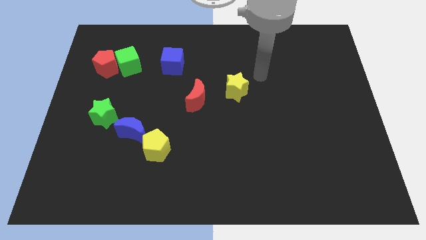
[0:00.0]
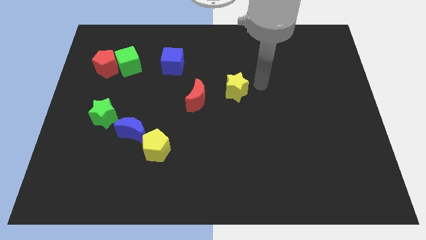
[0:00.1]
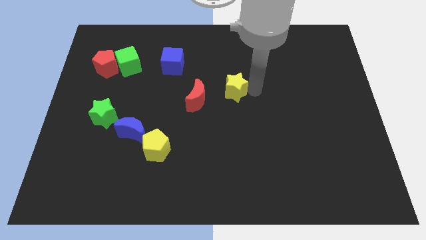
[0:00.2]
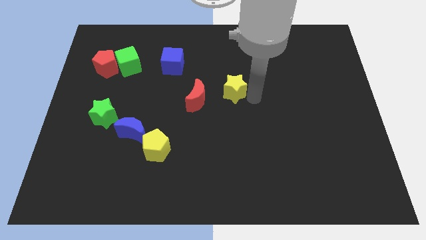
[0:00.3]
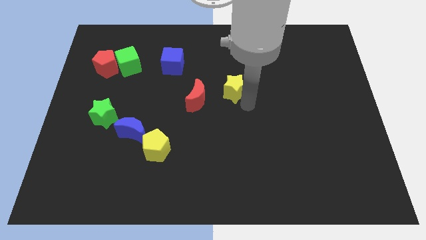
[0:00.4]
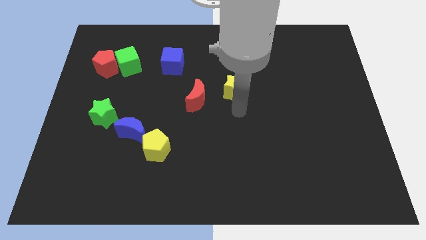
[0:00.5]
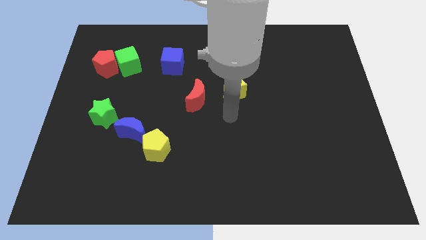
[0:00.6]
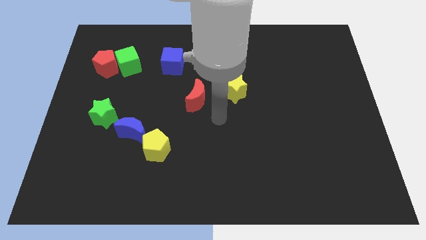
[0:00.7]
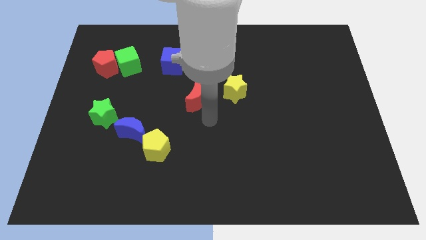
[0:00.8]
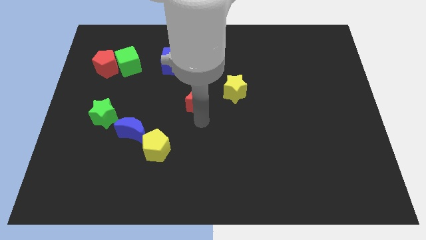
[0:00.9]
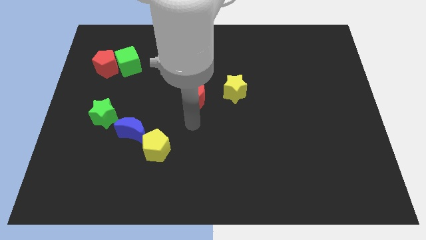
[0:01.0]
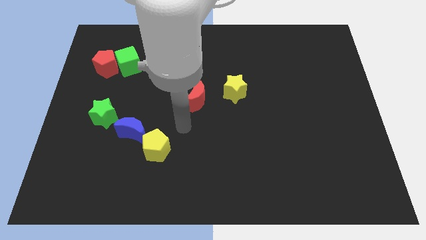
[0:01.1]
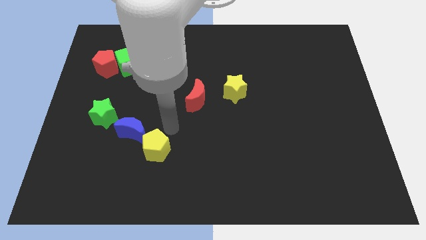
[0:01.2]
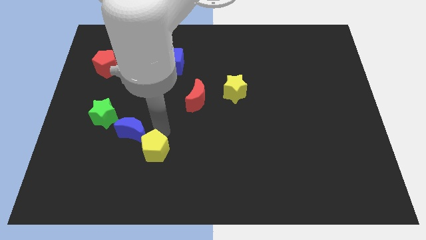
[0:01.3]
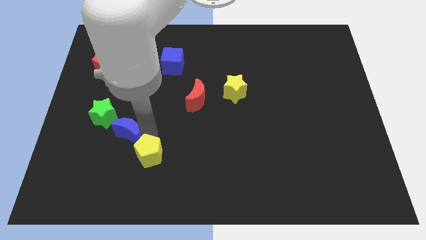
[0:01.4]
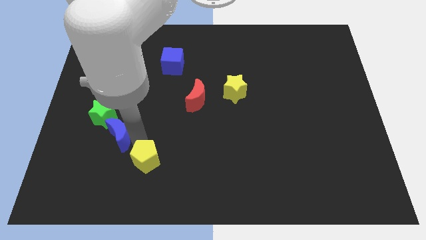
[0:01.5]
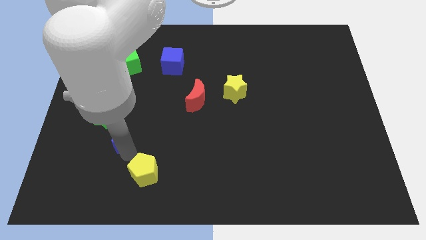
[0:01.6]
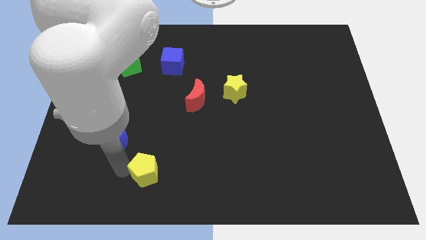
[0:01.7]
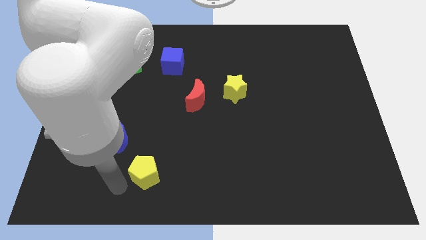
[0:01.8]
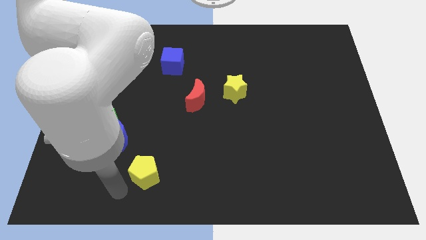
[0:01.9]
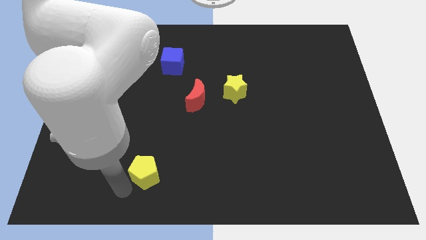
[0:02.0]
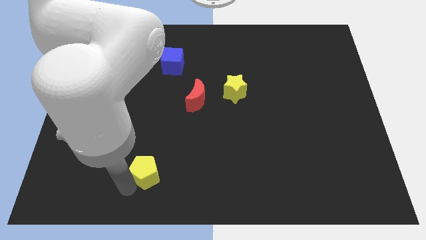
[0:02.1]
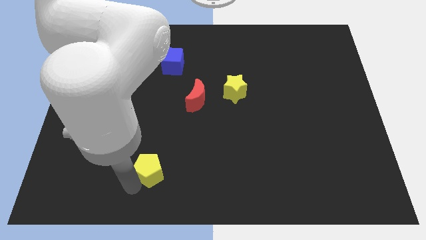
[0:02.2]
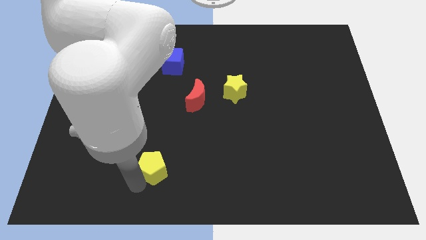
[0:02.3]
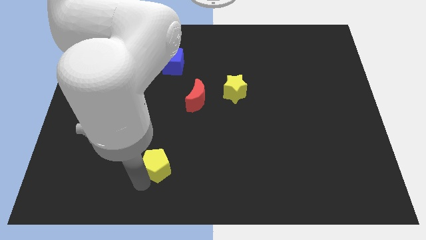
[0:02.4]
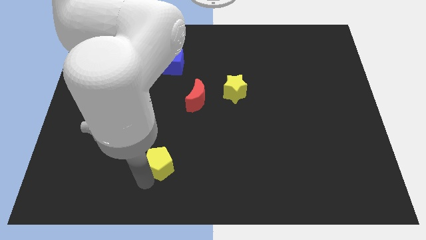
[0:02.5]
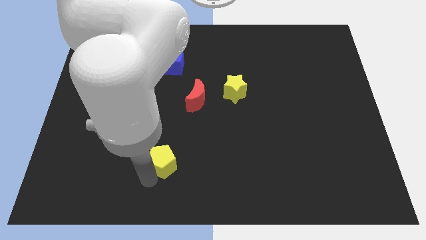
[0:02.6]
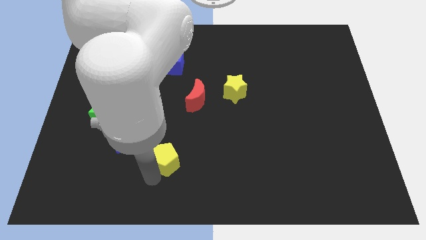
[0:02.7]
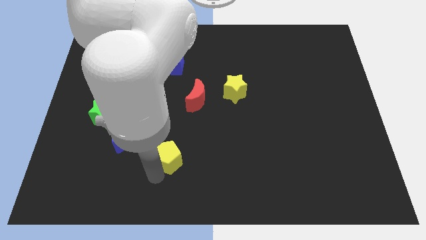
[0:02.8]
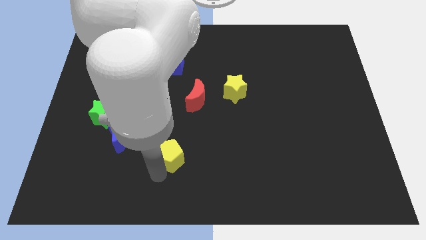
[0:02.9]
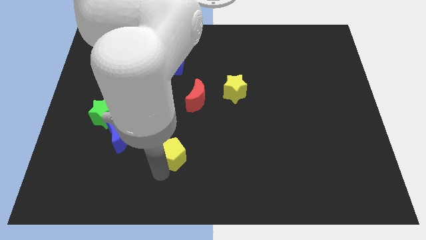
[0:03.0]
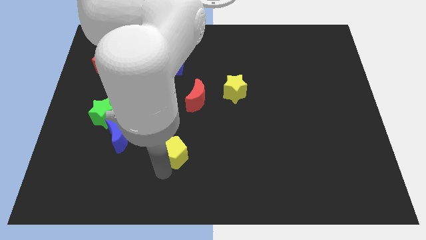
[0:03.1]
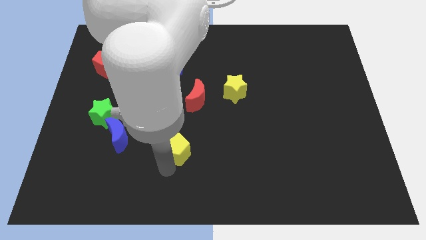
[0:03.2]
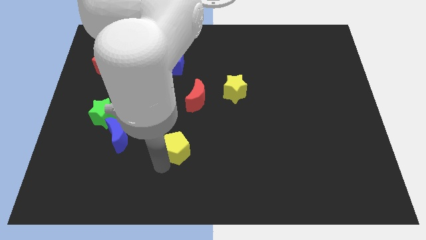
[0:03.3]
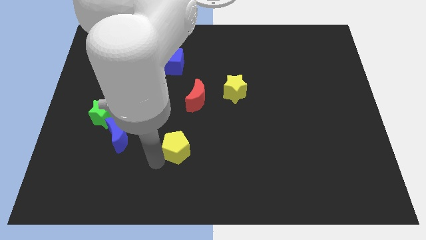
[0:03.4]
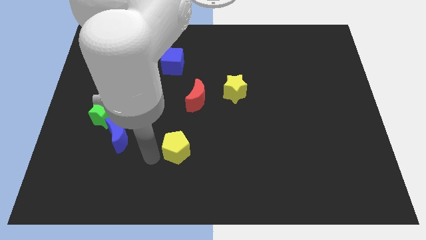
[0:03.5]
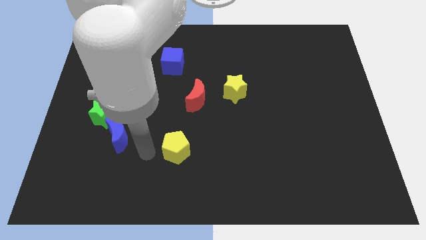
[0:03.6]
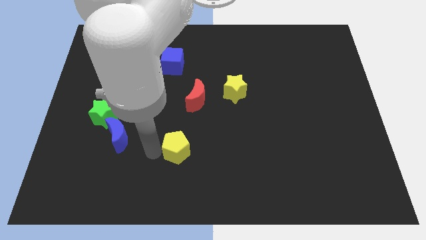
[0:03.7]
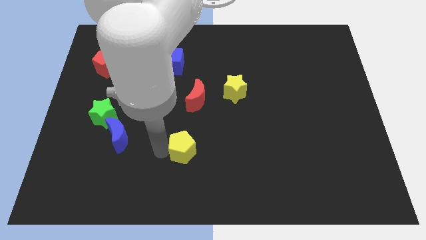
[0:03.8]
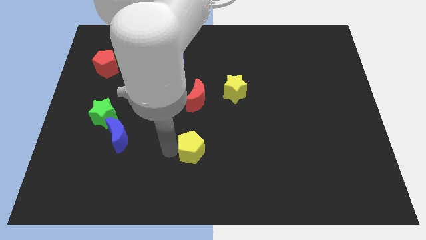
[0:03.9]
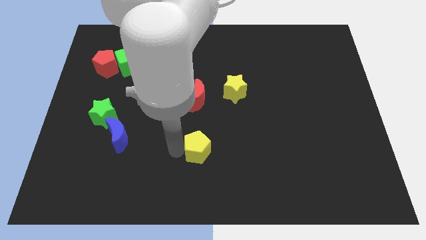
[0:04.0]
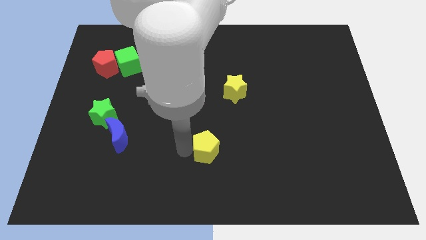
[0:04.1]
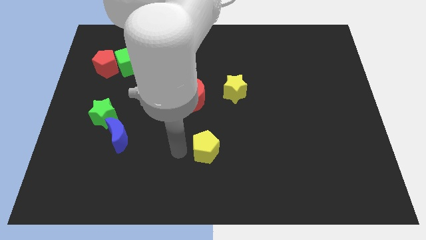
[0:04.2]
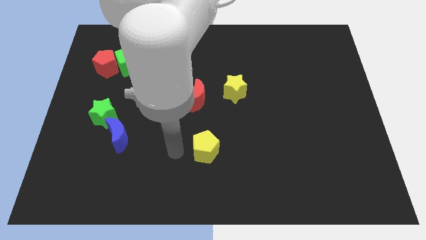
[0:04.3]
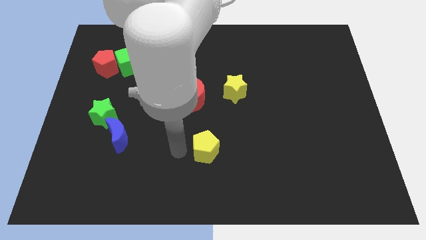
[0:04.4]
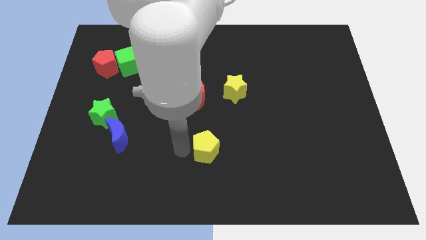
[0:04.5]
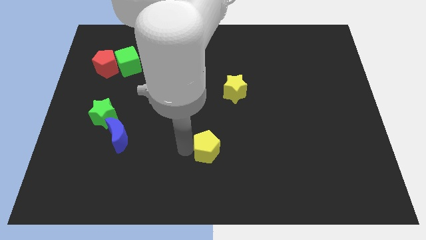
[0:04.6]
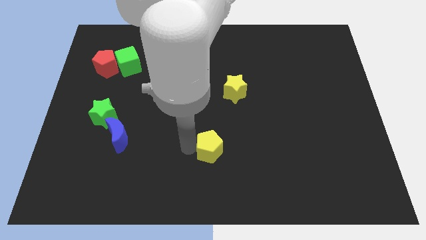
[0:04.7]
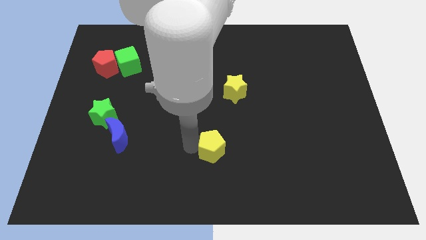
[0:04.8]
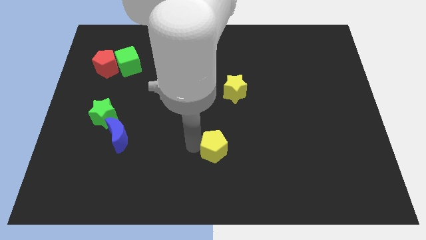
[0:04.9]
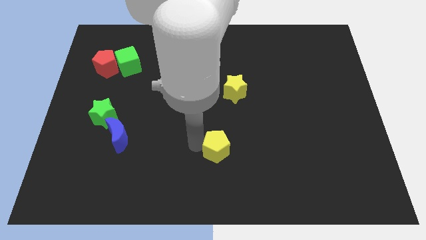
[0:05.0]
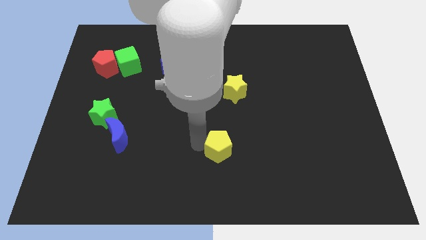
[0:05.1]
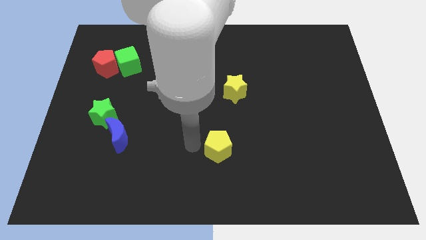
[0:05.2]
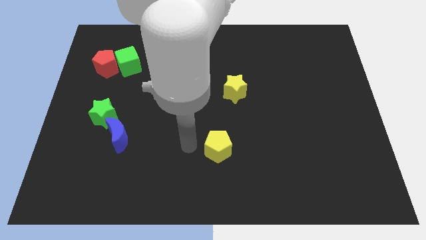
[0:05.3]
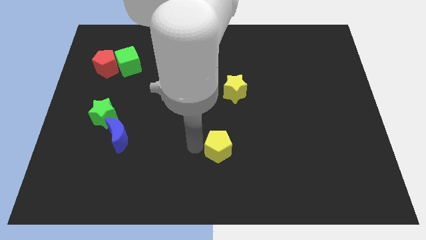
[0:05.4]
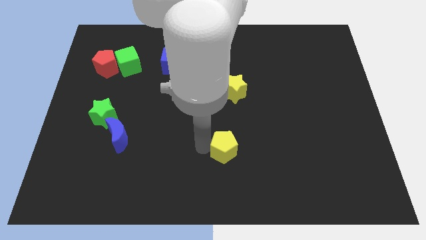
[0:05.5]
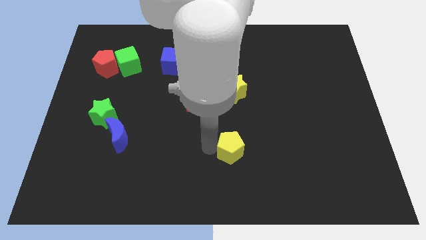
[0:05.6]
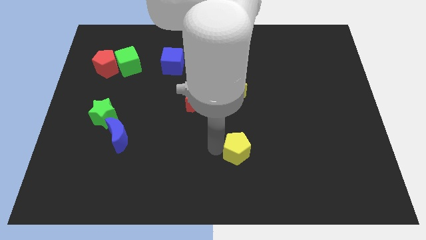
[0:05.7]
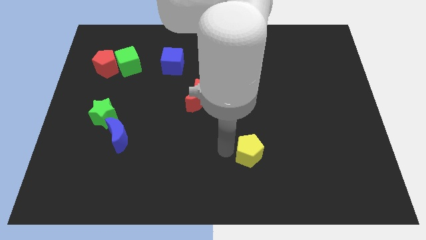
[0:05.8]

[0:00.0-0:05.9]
move the yellow pentagon right

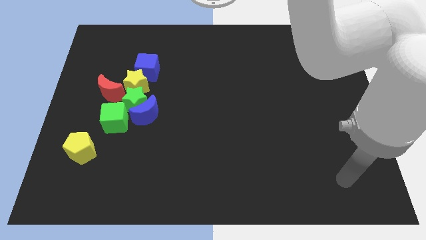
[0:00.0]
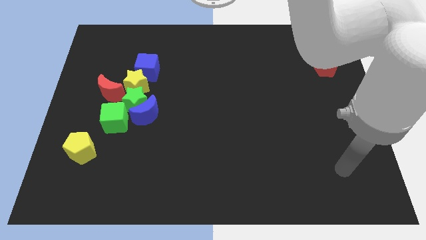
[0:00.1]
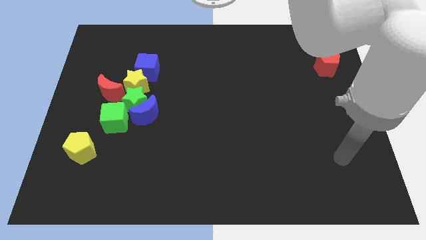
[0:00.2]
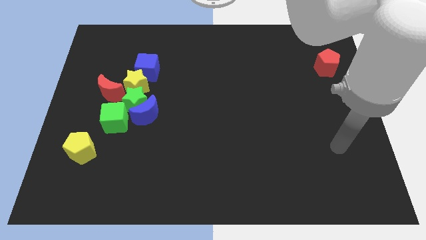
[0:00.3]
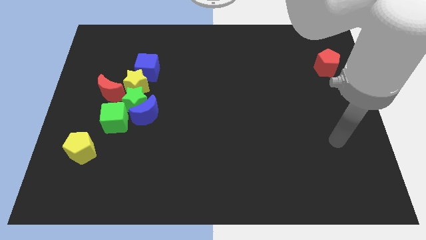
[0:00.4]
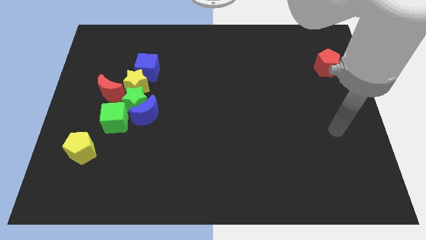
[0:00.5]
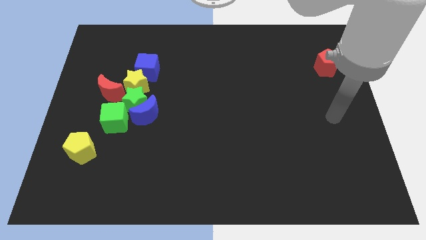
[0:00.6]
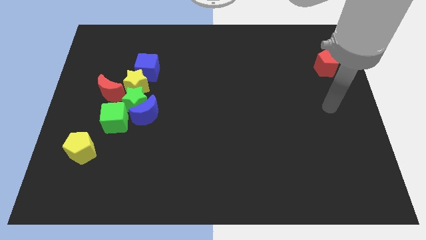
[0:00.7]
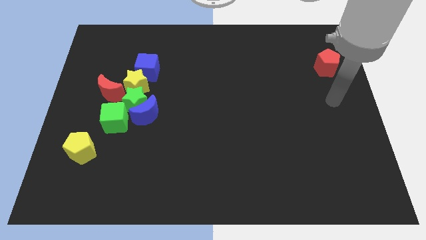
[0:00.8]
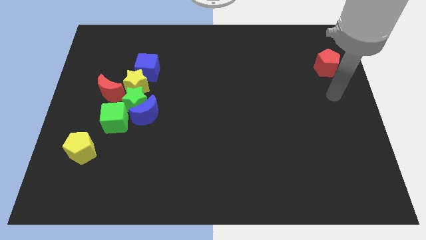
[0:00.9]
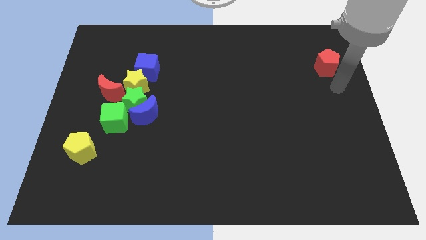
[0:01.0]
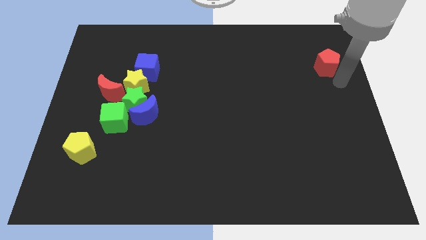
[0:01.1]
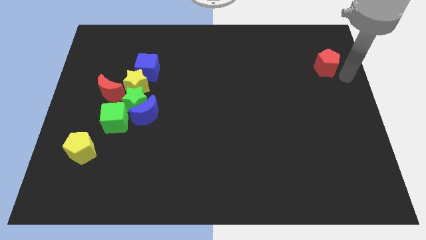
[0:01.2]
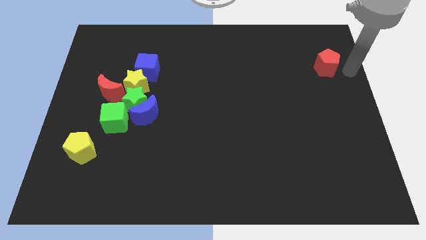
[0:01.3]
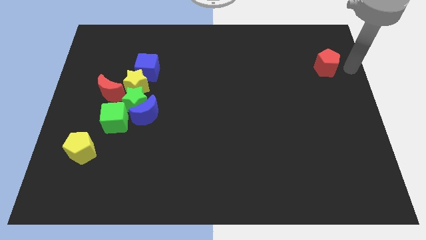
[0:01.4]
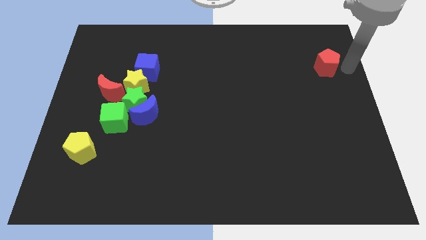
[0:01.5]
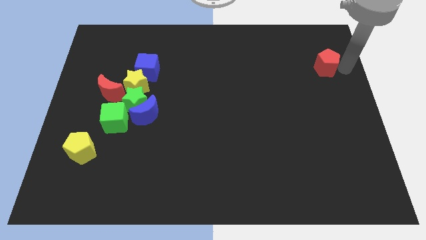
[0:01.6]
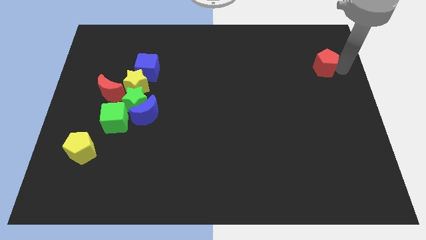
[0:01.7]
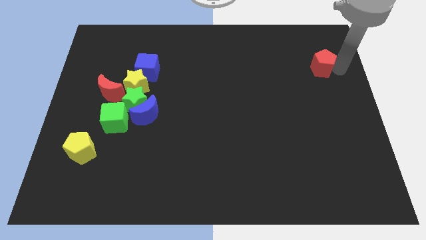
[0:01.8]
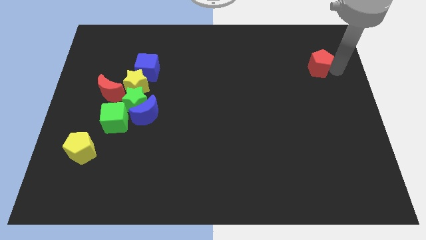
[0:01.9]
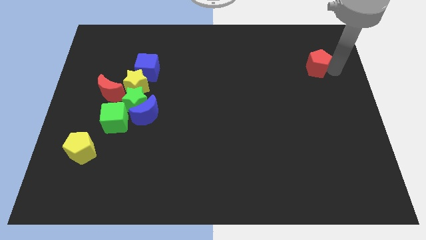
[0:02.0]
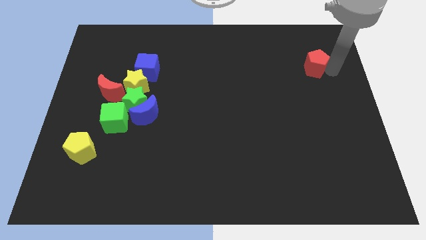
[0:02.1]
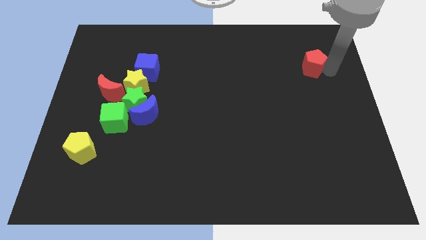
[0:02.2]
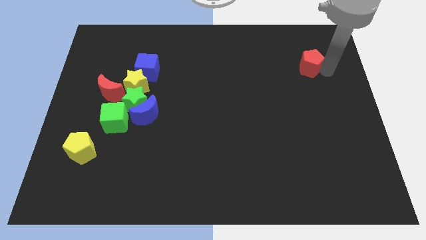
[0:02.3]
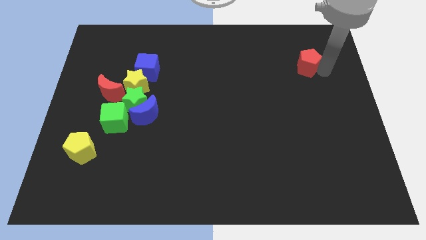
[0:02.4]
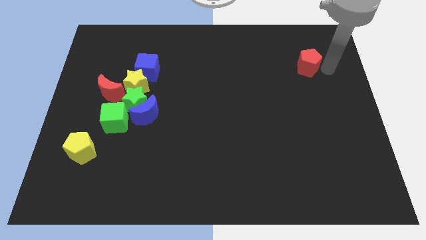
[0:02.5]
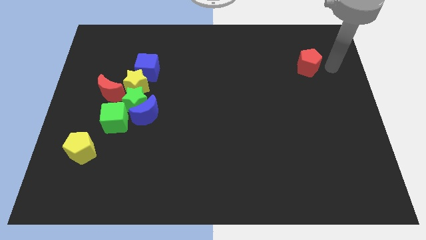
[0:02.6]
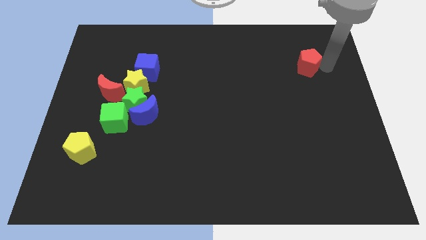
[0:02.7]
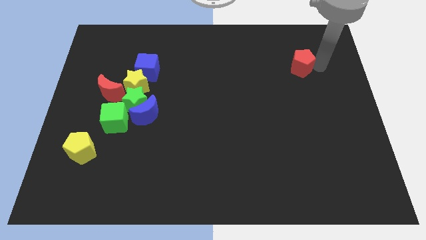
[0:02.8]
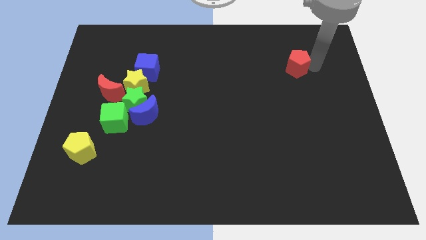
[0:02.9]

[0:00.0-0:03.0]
move the red pentagon a little to the left

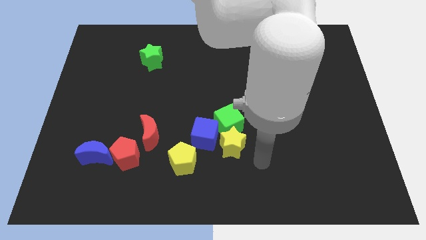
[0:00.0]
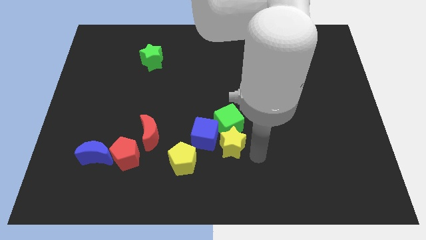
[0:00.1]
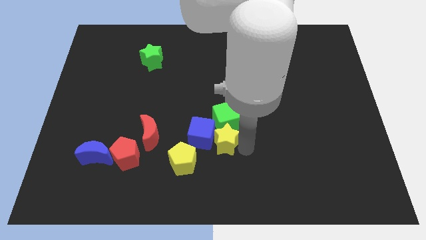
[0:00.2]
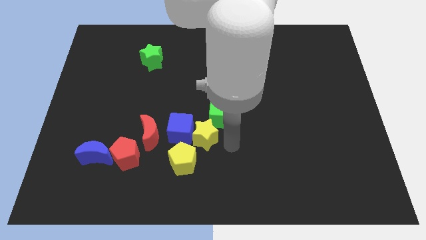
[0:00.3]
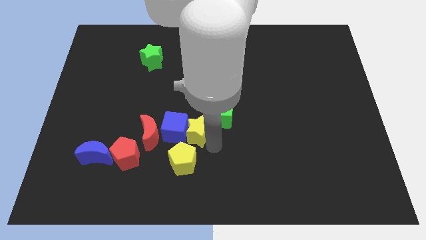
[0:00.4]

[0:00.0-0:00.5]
slide the blue cube a bit to the left
